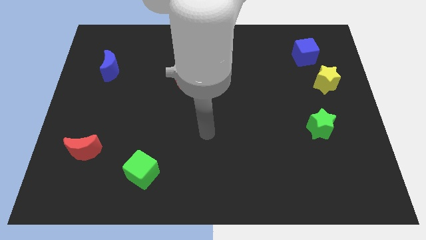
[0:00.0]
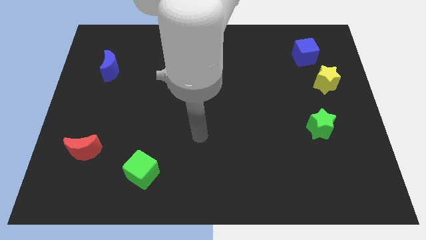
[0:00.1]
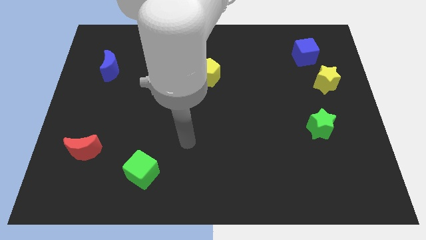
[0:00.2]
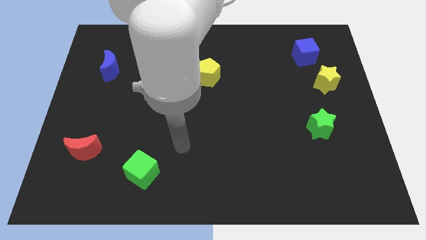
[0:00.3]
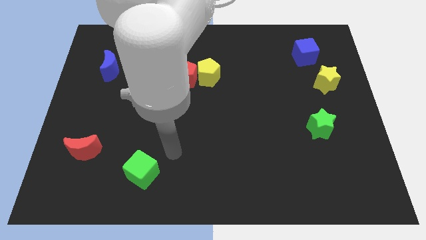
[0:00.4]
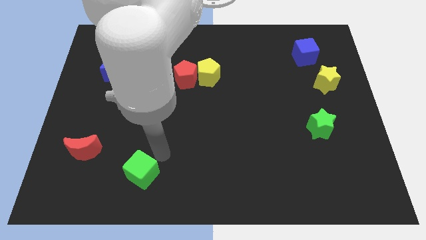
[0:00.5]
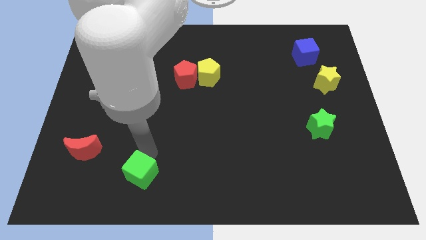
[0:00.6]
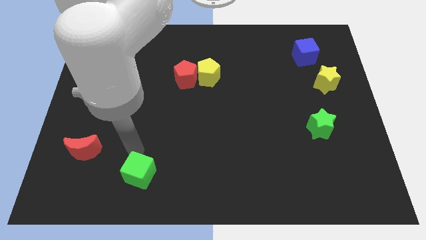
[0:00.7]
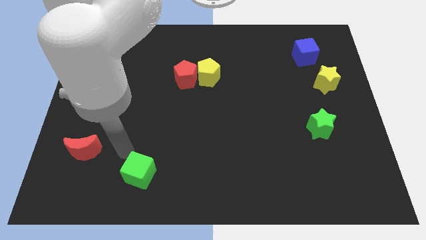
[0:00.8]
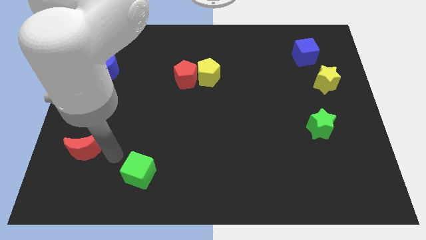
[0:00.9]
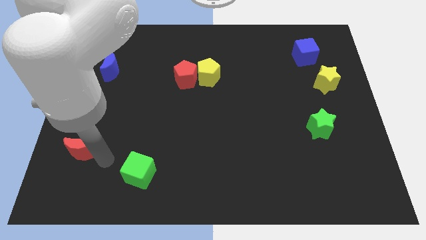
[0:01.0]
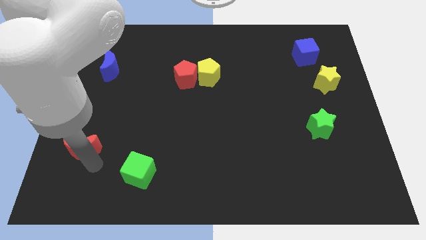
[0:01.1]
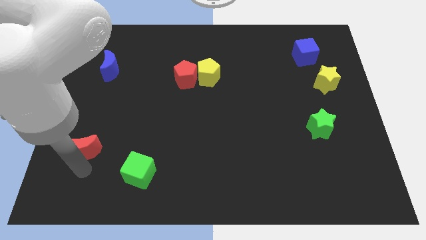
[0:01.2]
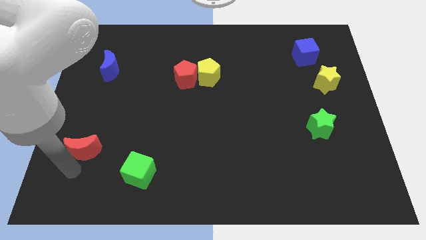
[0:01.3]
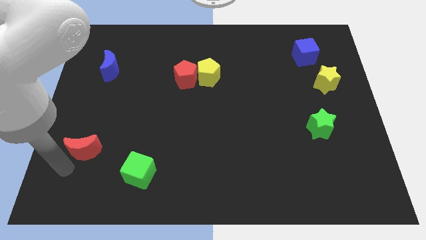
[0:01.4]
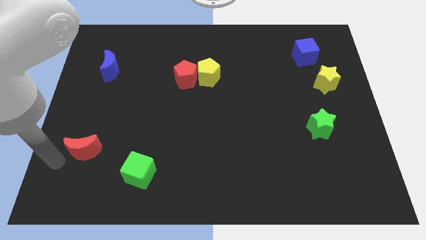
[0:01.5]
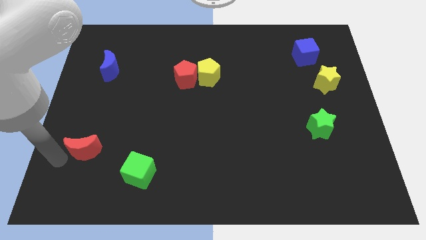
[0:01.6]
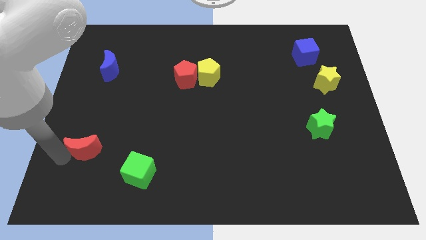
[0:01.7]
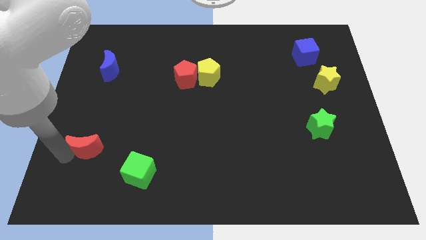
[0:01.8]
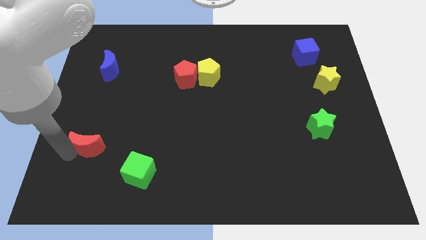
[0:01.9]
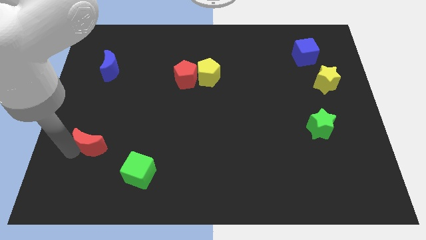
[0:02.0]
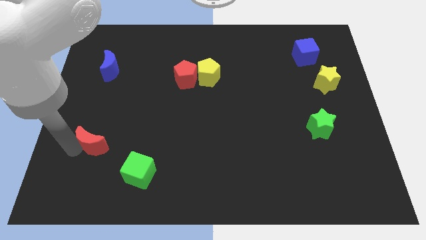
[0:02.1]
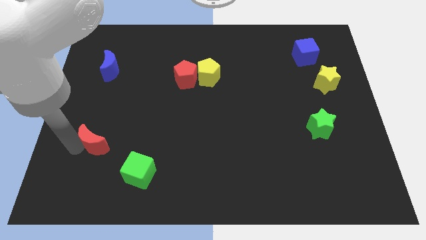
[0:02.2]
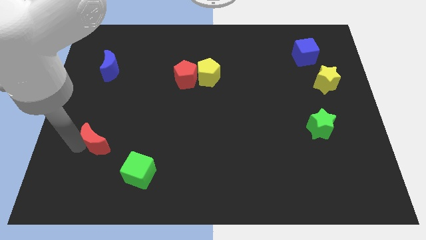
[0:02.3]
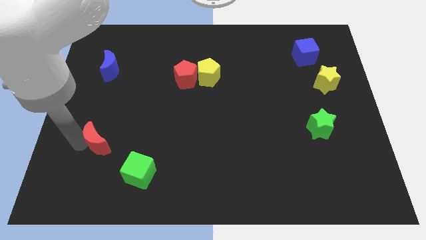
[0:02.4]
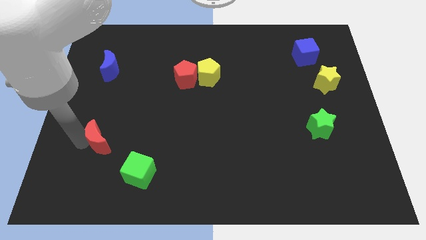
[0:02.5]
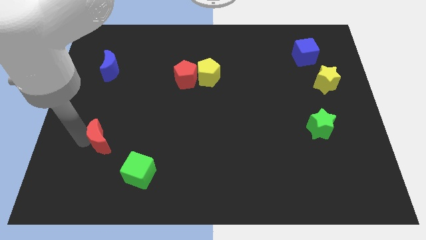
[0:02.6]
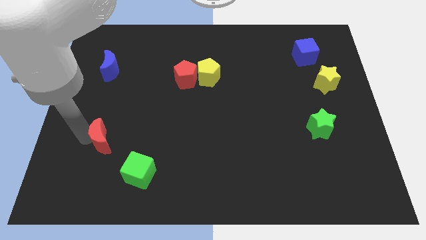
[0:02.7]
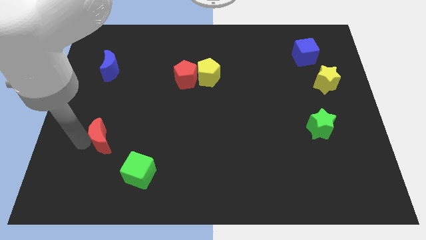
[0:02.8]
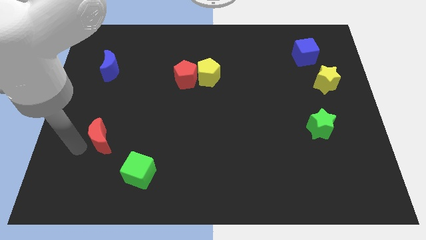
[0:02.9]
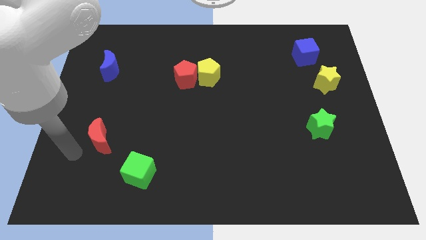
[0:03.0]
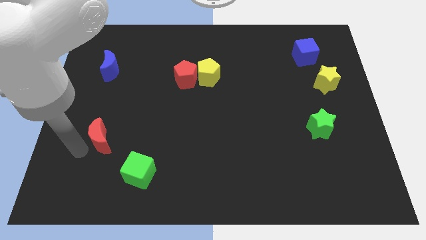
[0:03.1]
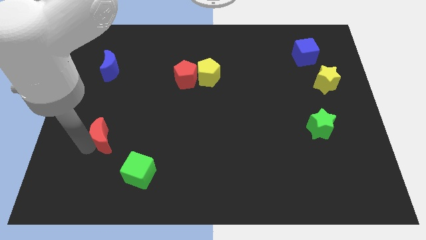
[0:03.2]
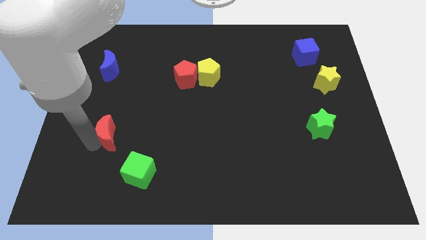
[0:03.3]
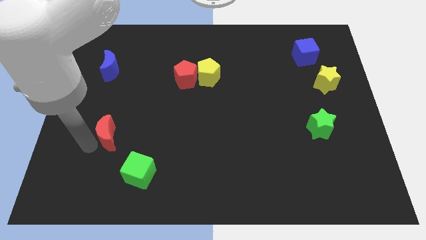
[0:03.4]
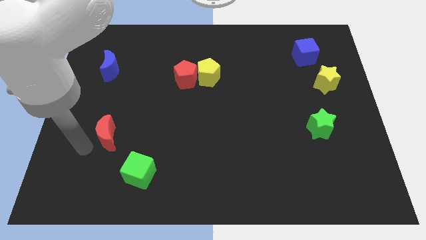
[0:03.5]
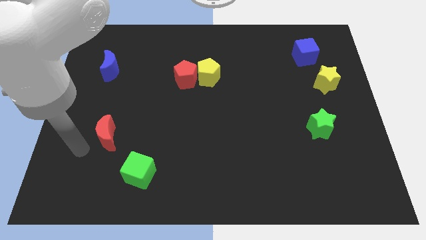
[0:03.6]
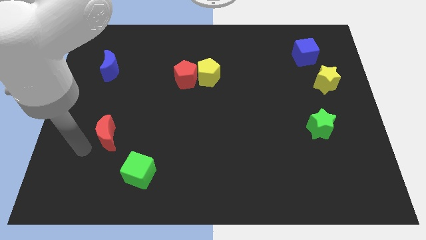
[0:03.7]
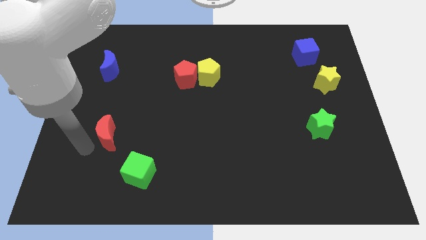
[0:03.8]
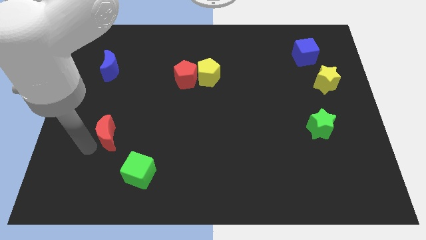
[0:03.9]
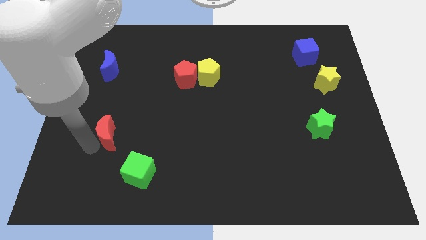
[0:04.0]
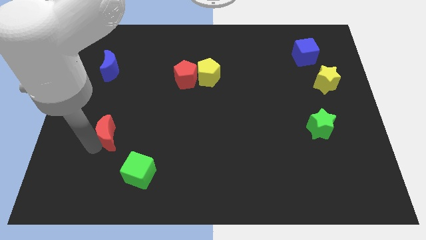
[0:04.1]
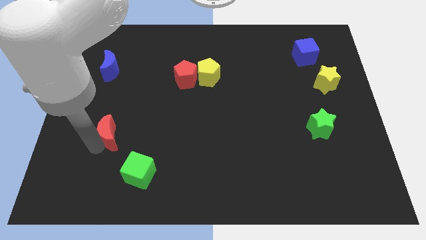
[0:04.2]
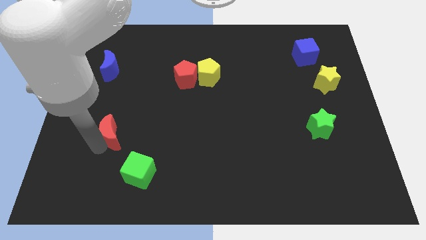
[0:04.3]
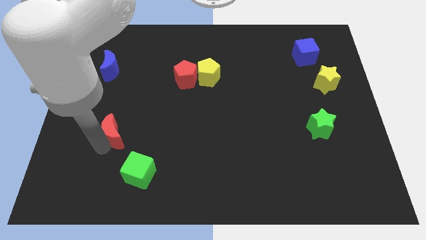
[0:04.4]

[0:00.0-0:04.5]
slightly slide the red moon up and right diagonally

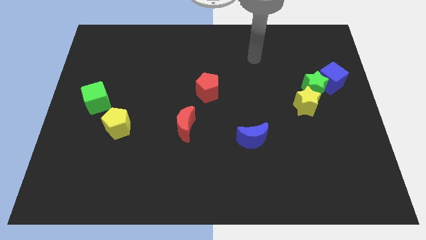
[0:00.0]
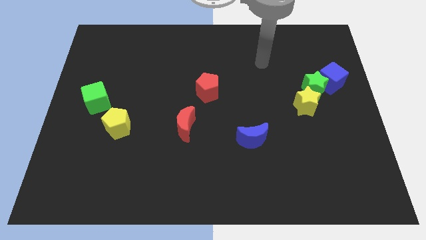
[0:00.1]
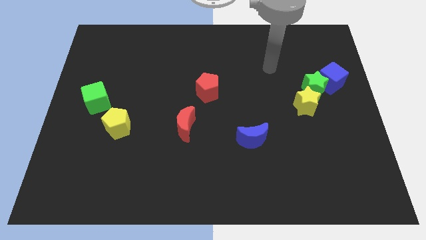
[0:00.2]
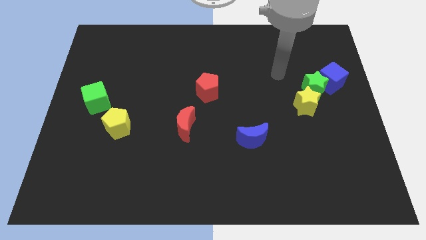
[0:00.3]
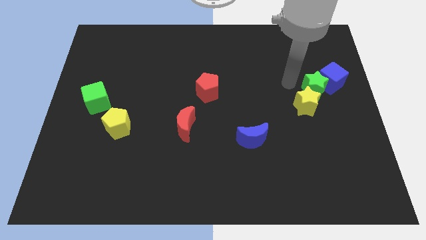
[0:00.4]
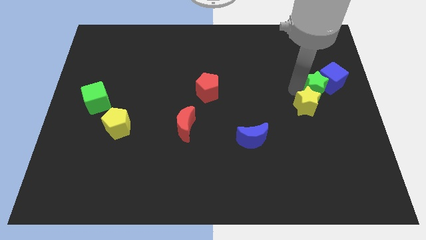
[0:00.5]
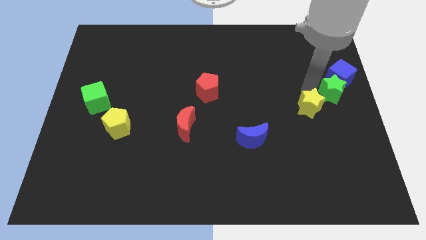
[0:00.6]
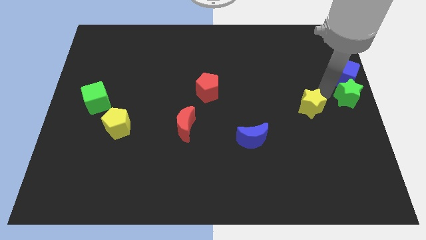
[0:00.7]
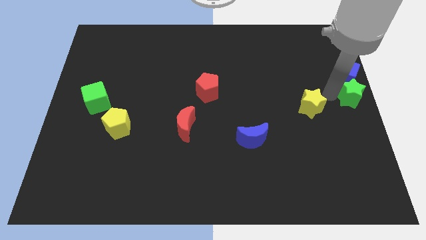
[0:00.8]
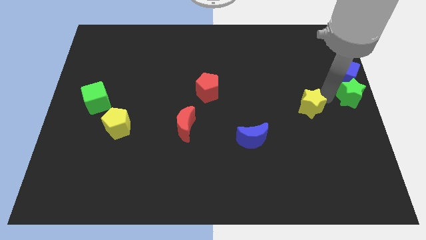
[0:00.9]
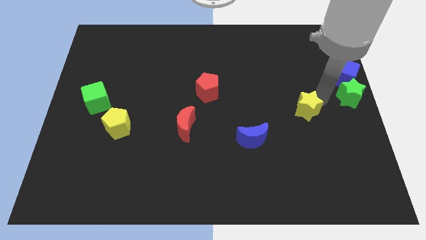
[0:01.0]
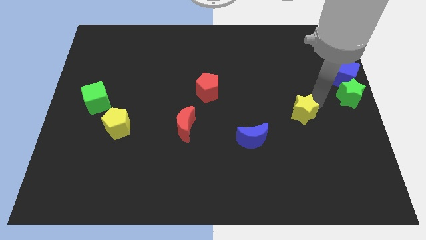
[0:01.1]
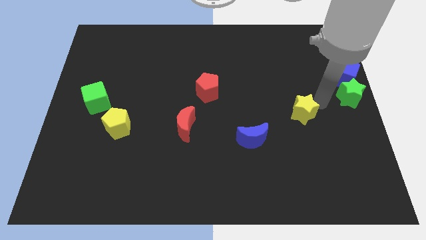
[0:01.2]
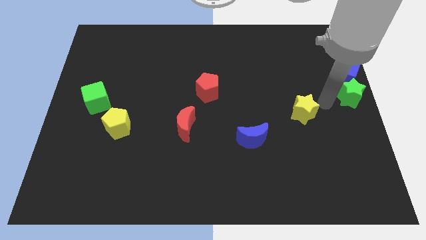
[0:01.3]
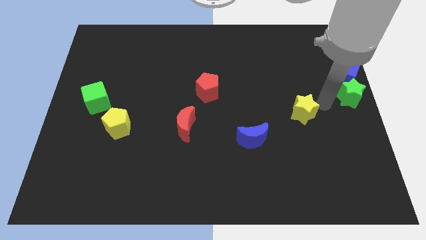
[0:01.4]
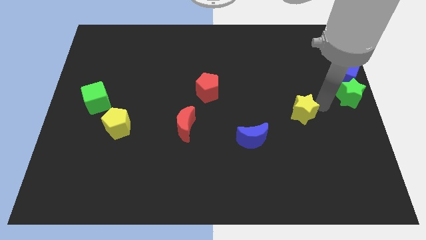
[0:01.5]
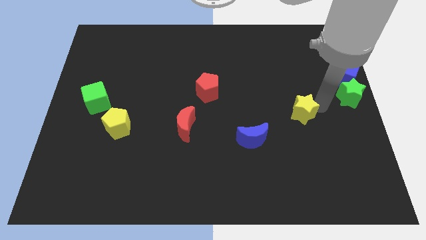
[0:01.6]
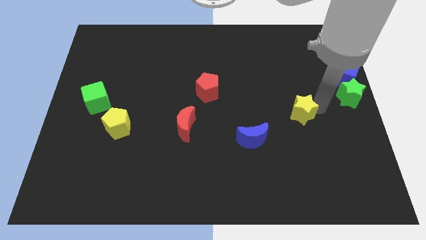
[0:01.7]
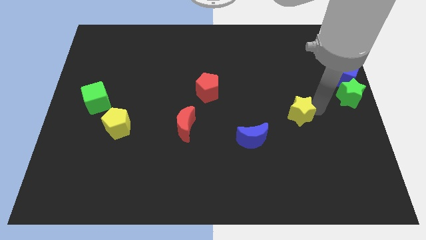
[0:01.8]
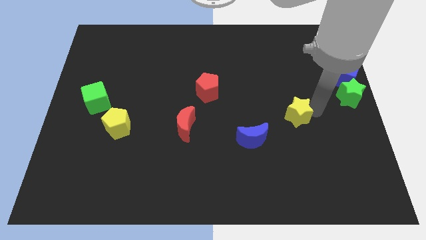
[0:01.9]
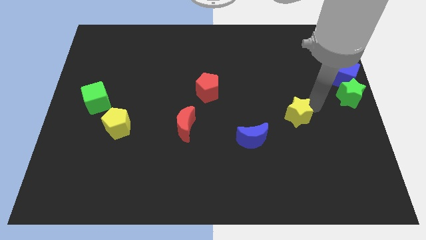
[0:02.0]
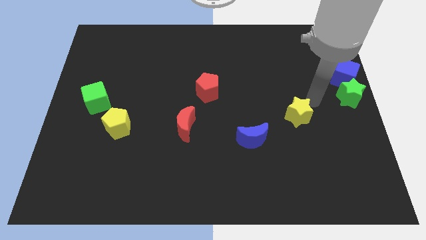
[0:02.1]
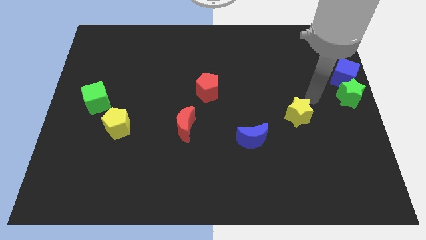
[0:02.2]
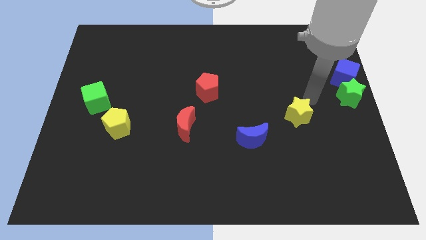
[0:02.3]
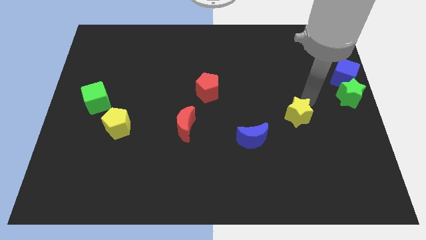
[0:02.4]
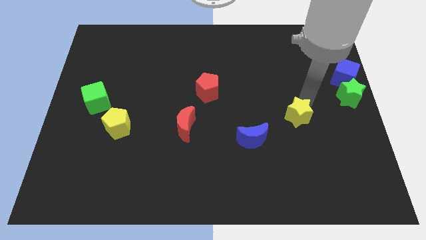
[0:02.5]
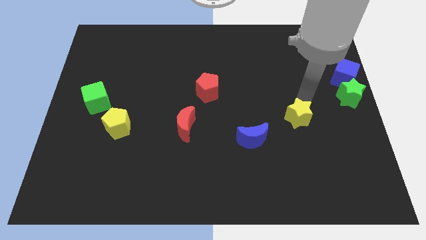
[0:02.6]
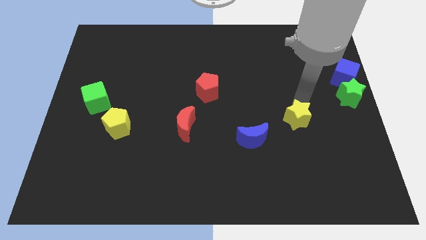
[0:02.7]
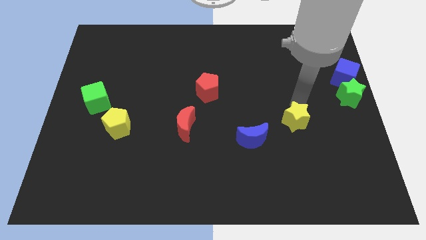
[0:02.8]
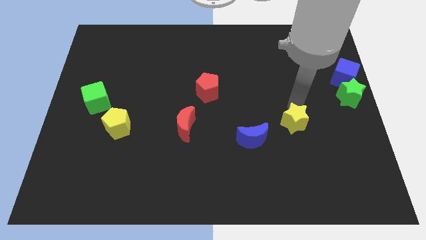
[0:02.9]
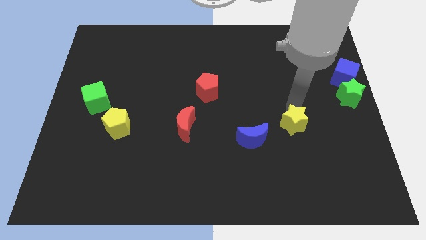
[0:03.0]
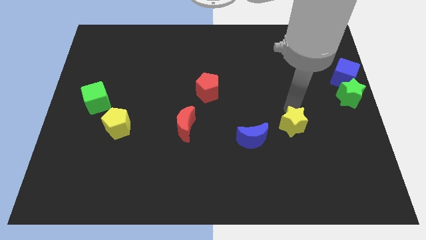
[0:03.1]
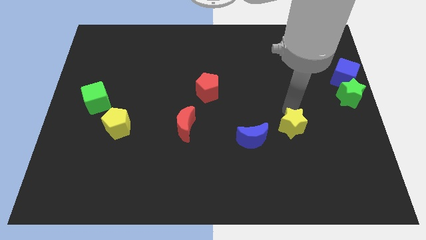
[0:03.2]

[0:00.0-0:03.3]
slide the yellow star a little bit downwards and then left

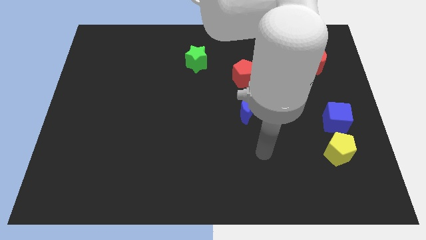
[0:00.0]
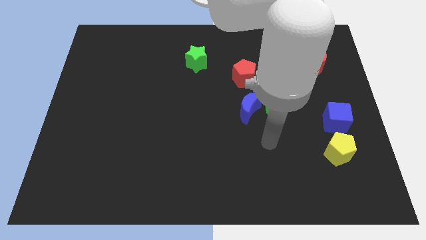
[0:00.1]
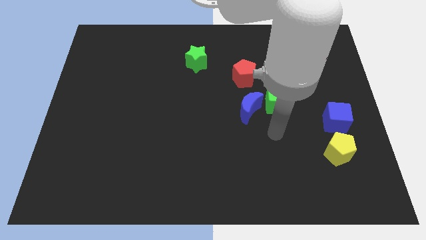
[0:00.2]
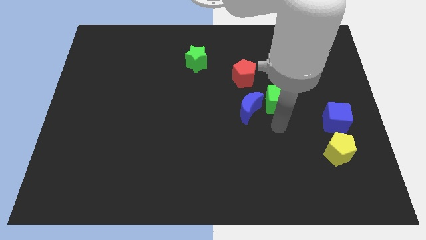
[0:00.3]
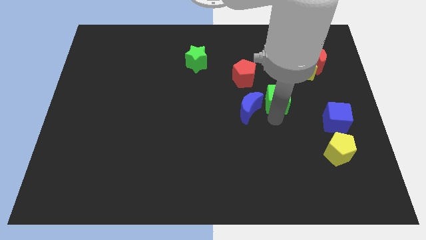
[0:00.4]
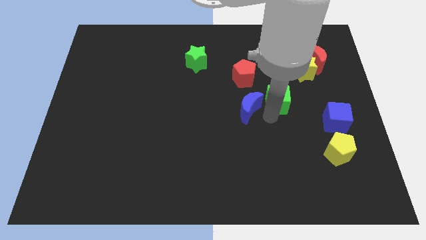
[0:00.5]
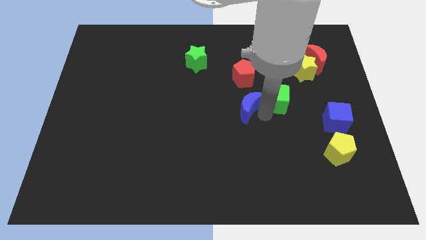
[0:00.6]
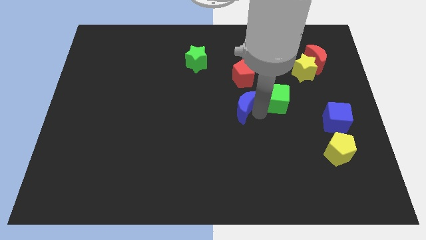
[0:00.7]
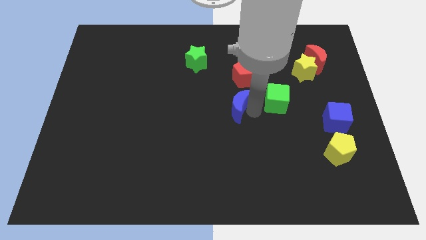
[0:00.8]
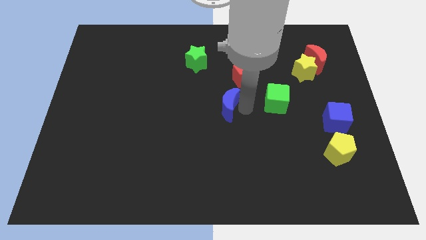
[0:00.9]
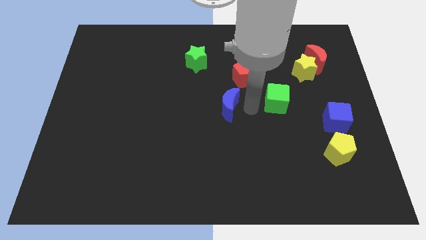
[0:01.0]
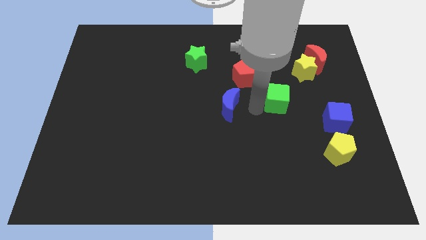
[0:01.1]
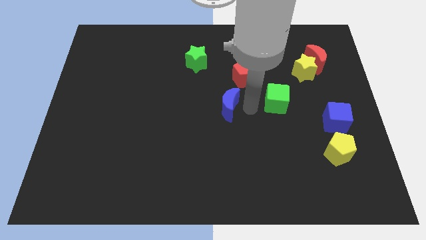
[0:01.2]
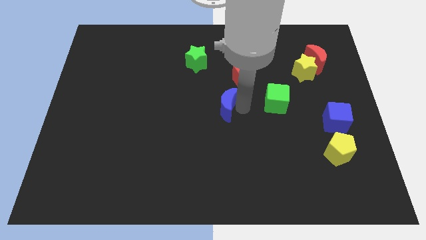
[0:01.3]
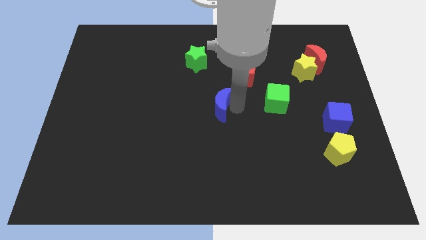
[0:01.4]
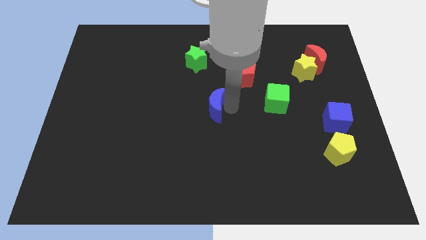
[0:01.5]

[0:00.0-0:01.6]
move the blue moon somewhat left
